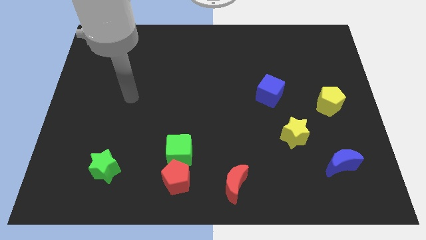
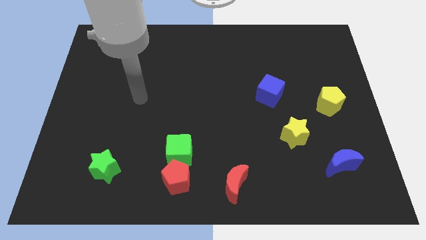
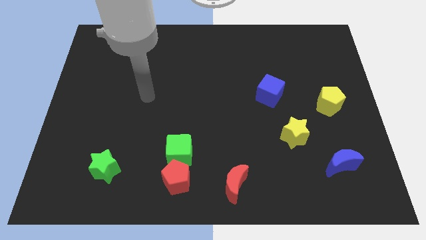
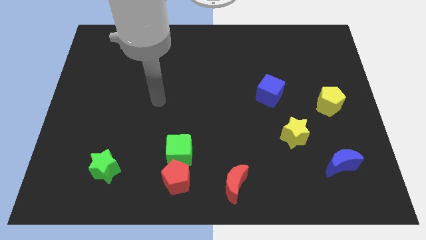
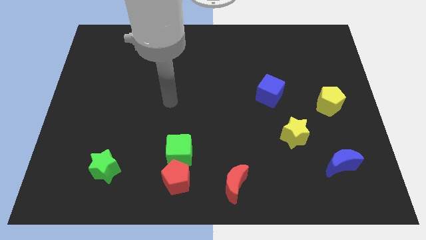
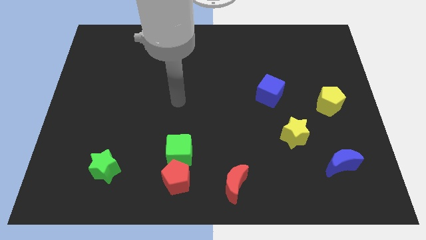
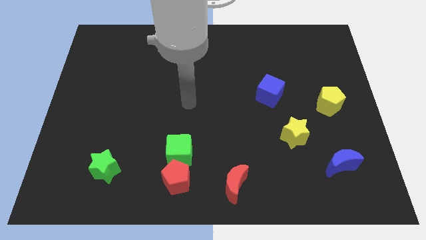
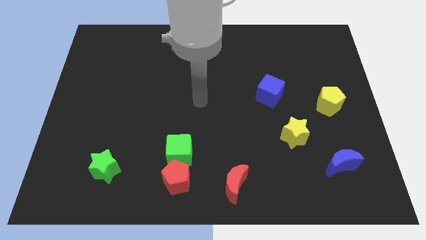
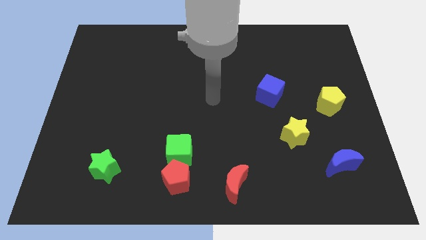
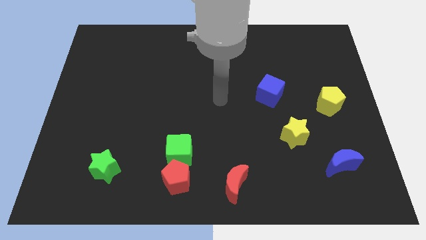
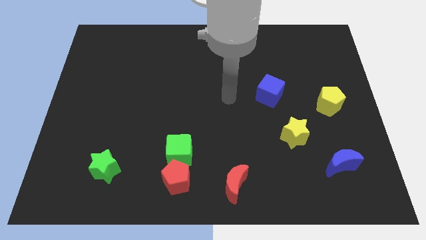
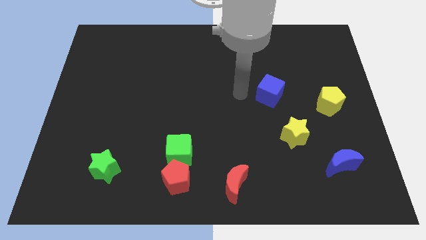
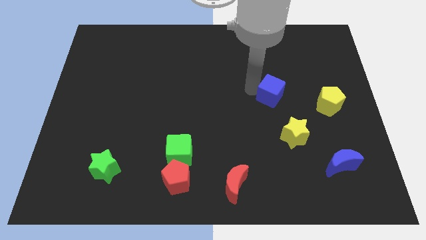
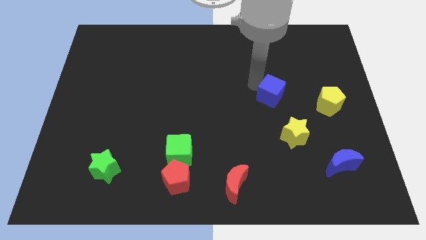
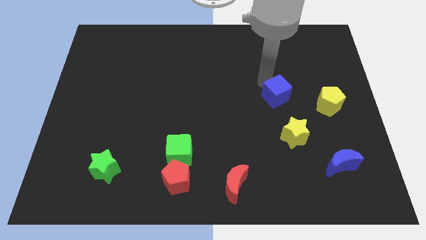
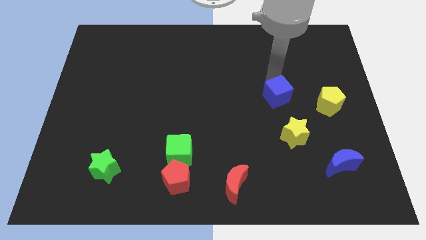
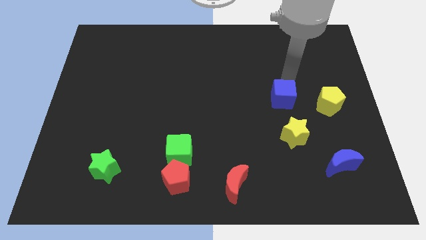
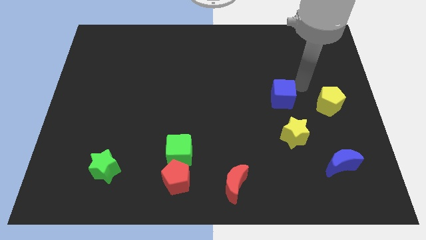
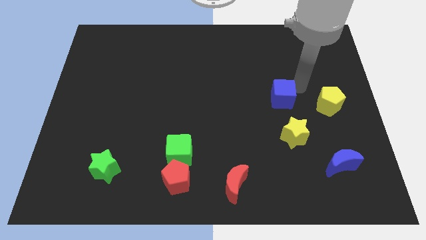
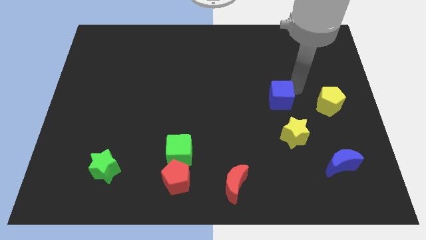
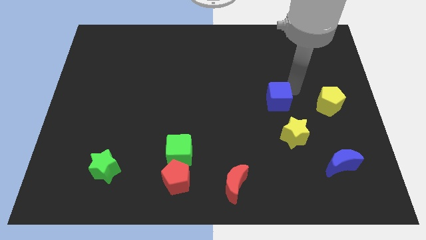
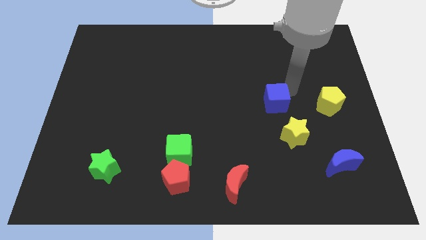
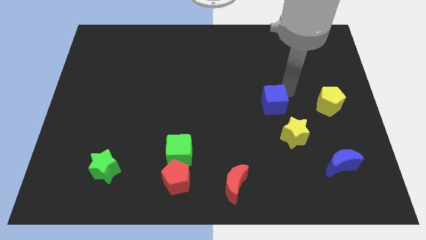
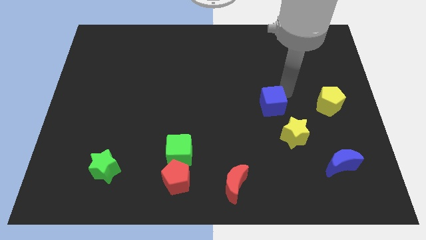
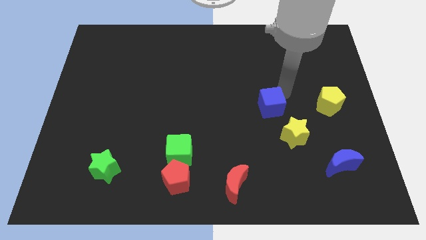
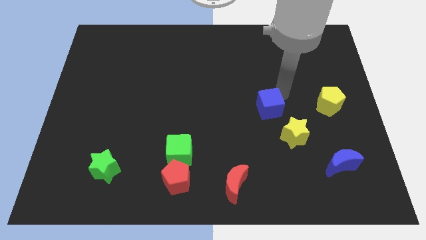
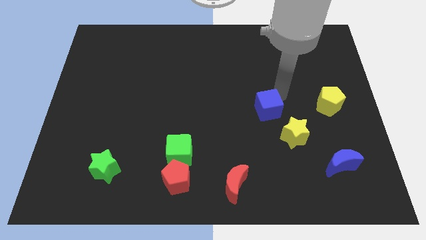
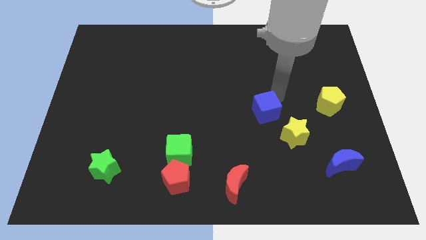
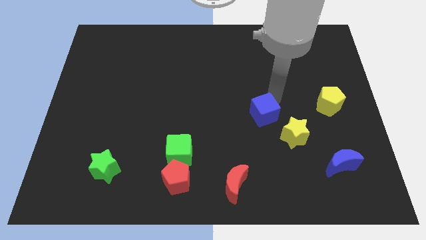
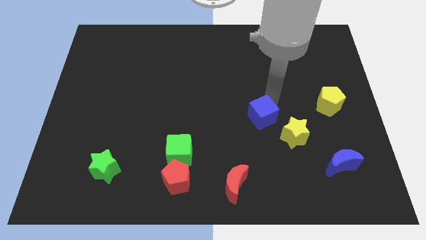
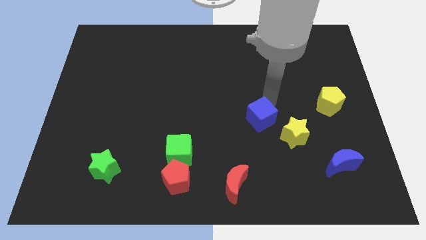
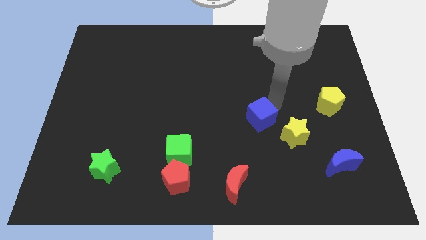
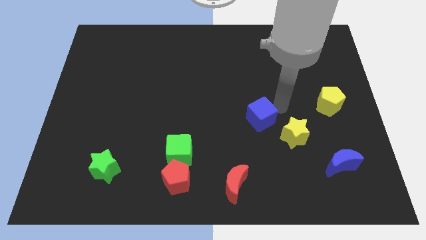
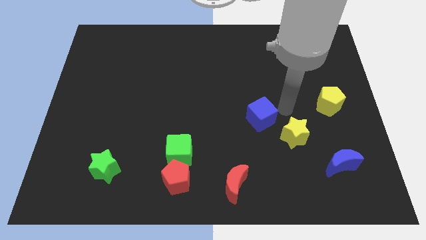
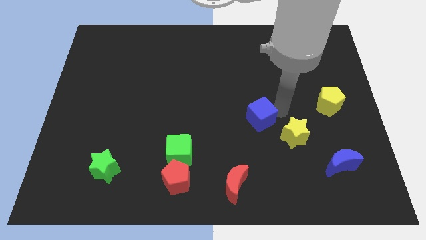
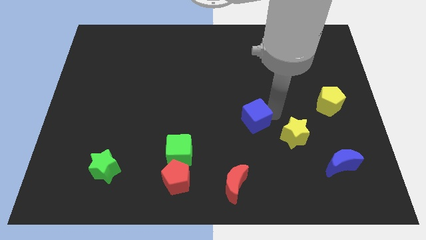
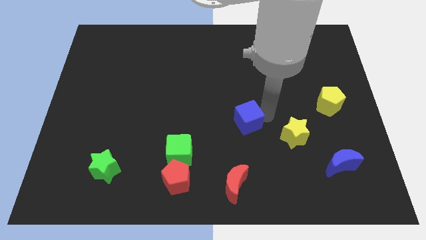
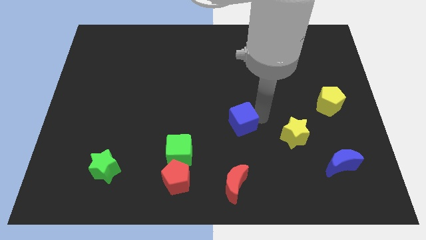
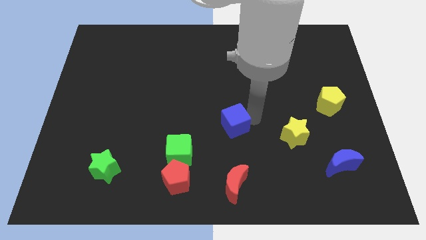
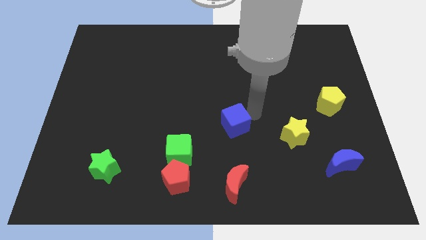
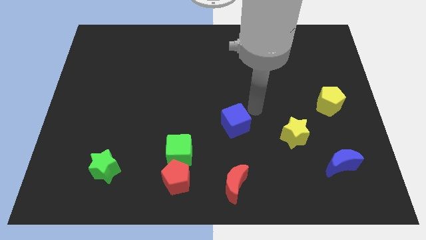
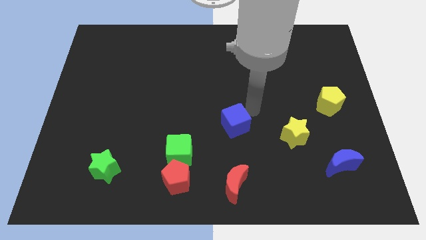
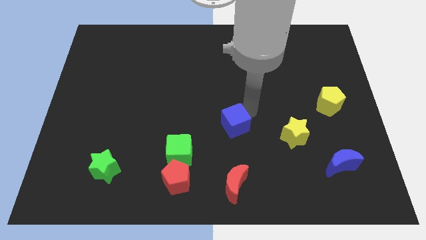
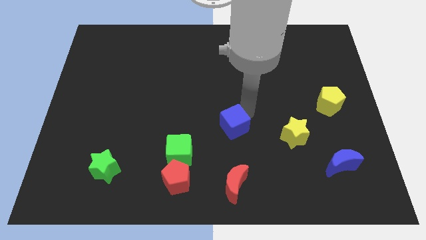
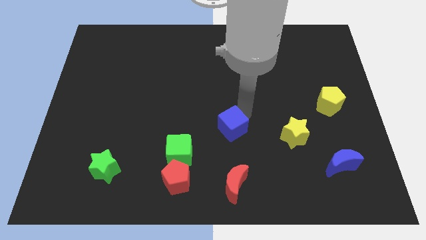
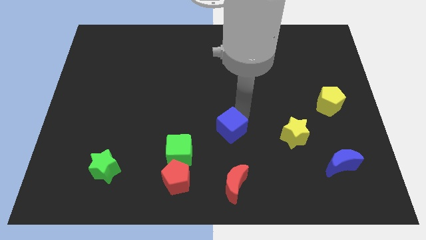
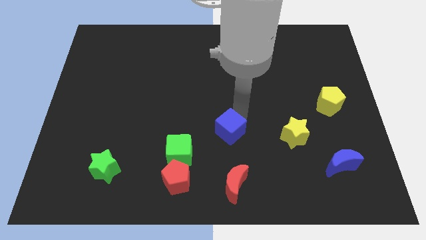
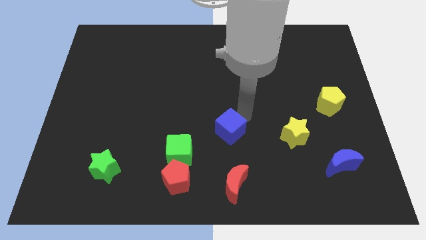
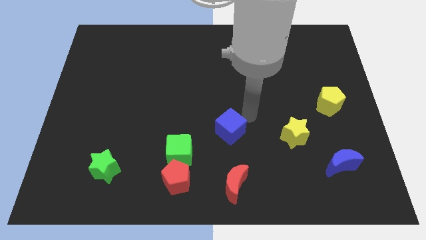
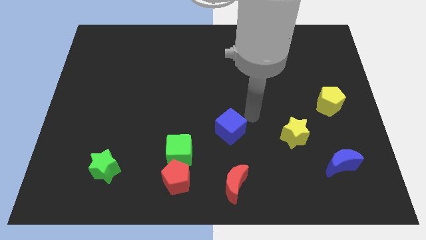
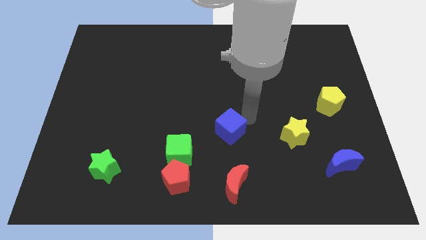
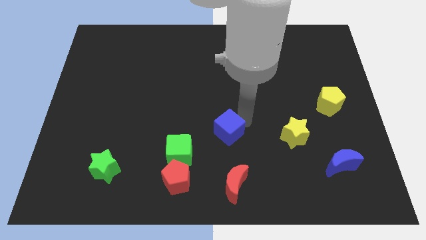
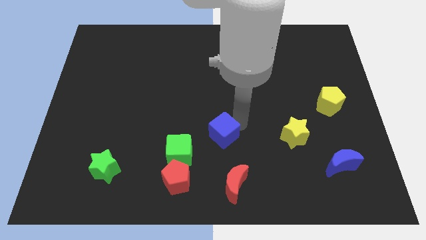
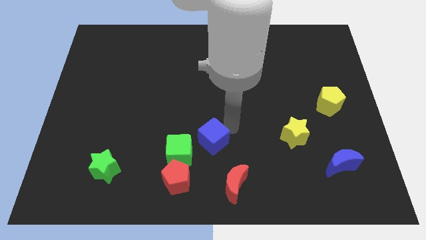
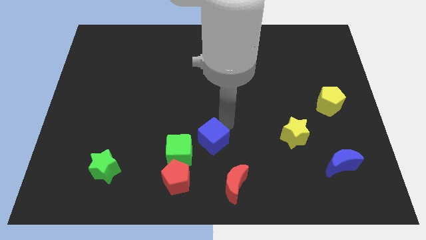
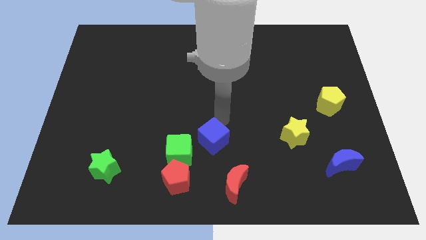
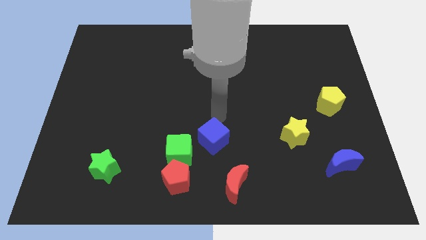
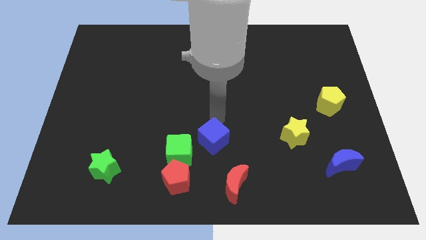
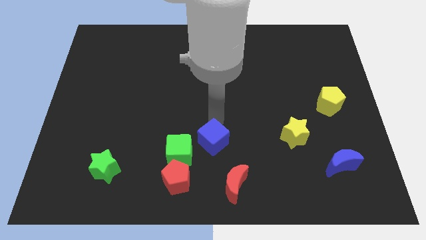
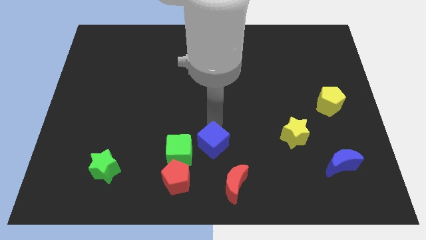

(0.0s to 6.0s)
put the blue cube to the top left of the red moon

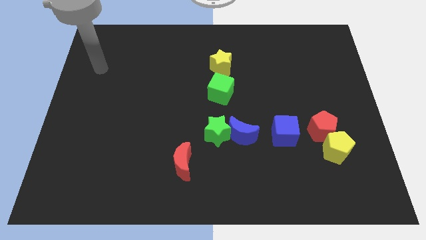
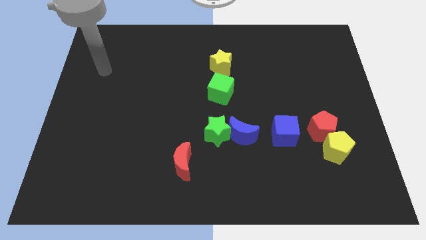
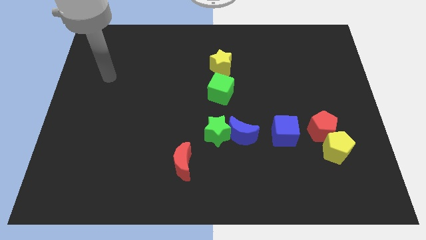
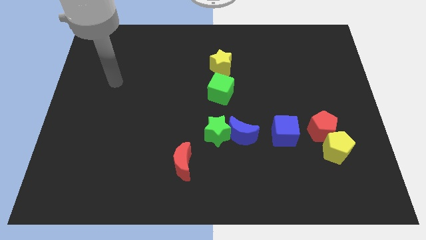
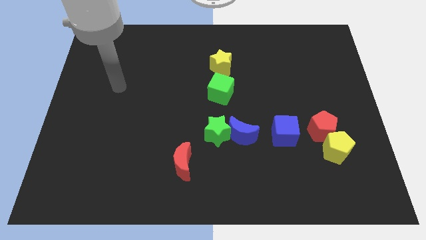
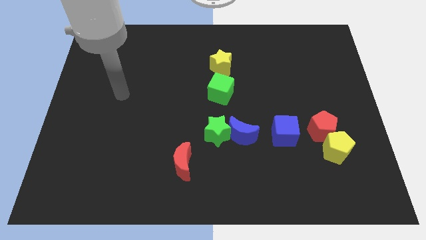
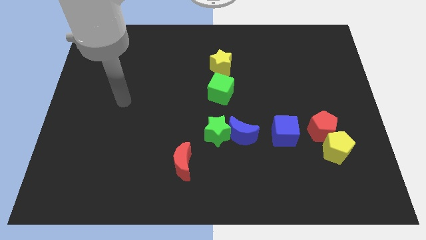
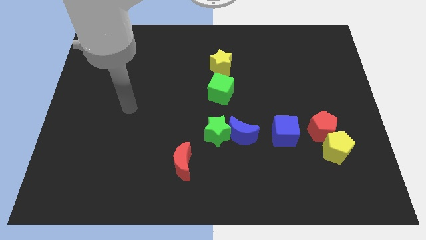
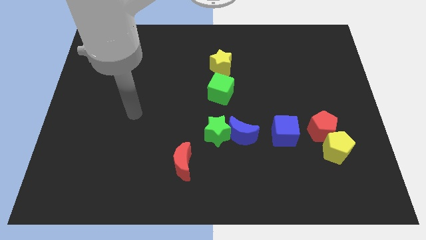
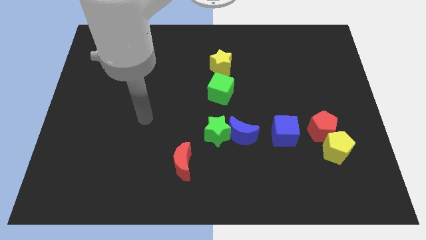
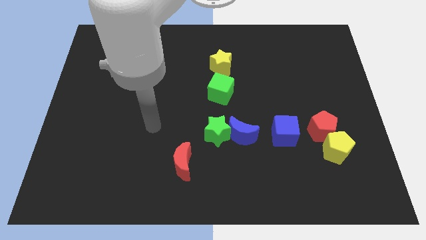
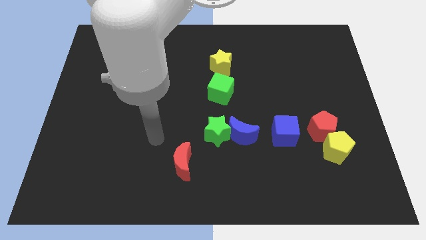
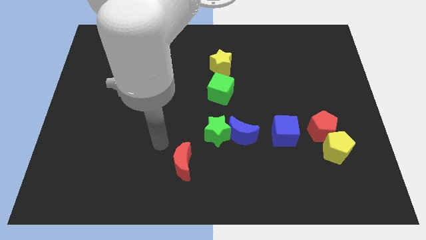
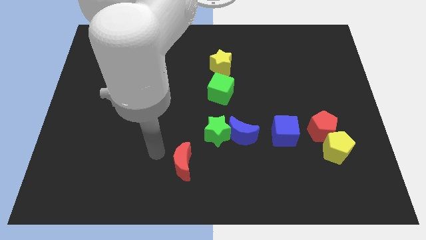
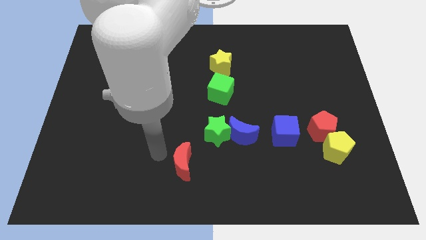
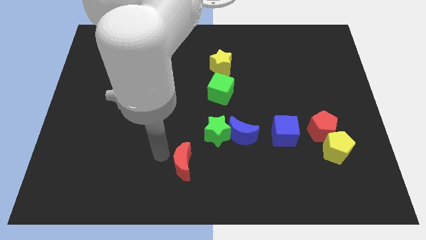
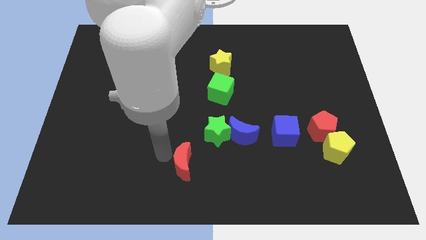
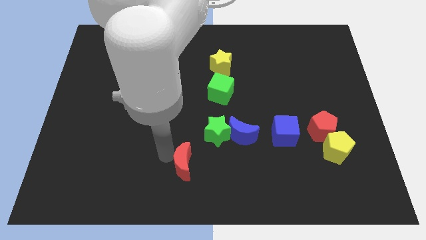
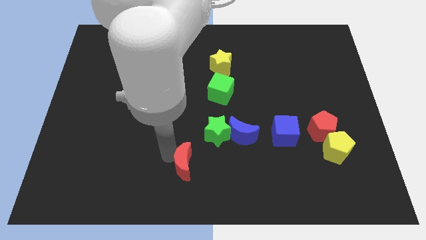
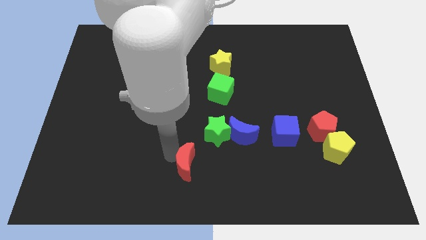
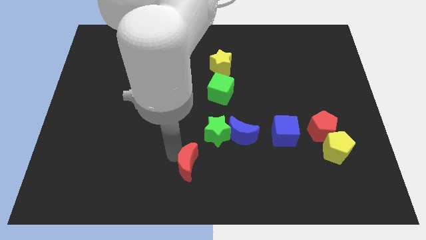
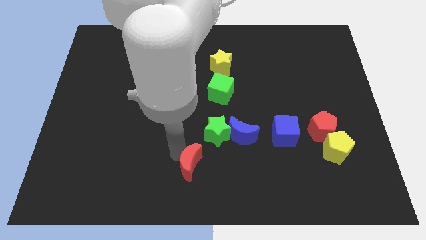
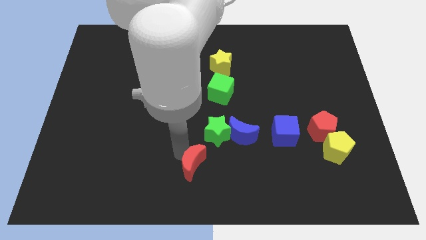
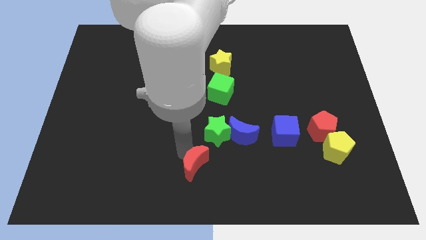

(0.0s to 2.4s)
push the red moon to the bottom side of the green star
